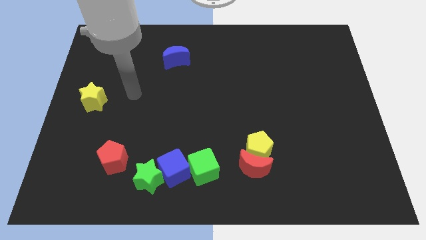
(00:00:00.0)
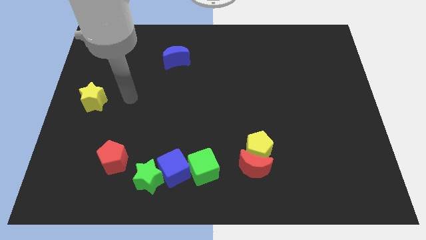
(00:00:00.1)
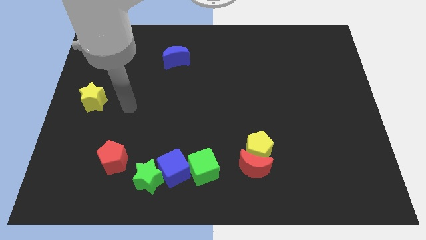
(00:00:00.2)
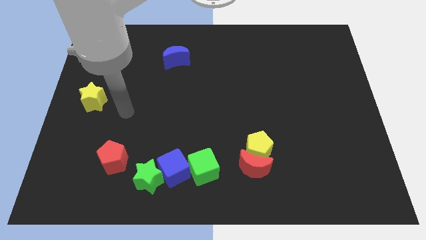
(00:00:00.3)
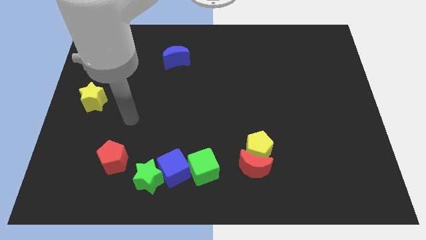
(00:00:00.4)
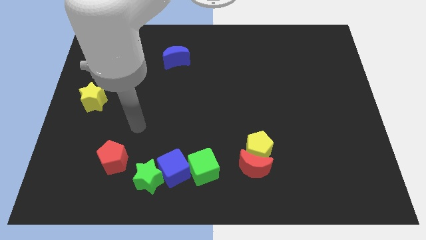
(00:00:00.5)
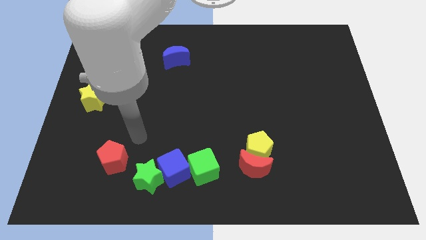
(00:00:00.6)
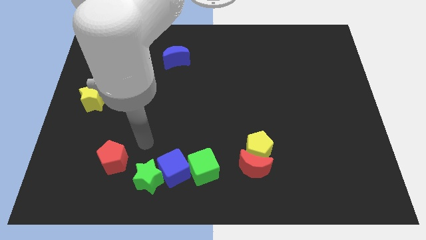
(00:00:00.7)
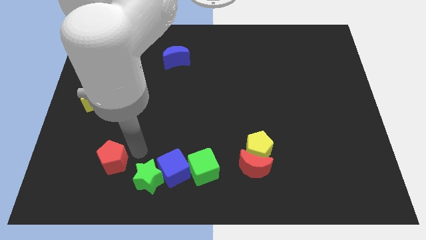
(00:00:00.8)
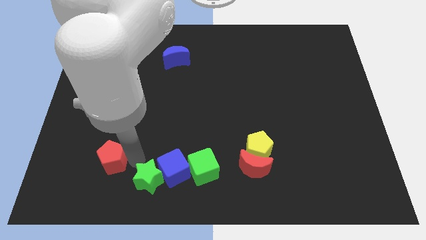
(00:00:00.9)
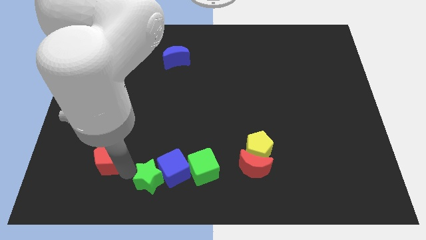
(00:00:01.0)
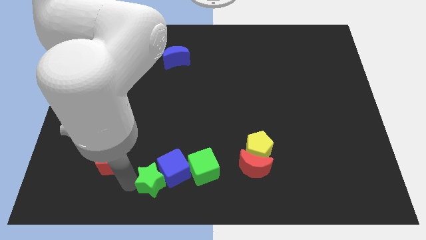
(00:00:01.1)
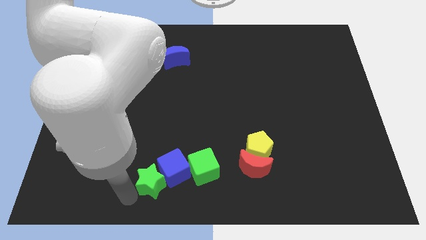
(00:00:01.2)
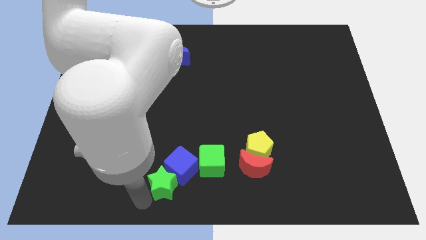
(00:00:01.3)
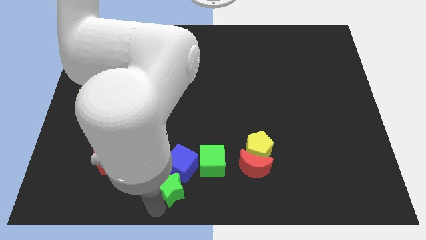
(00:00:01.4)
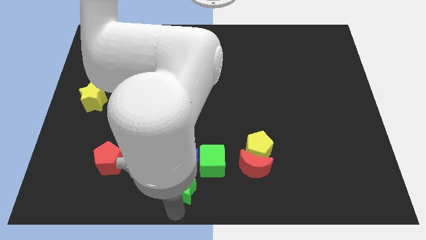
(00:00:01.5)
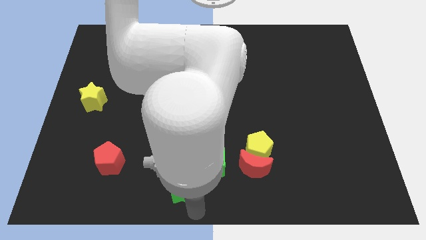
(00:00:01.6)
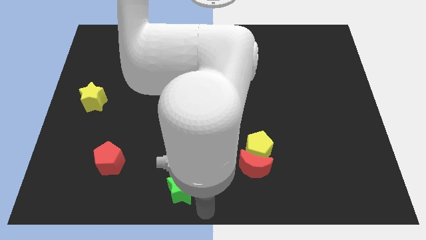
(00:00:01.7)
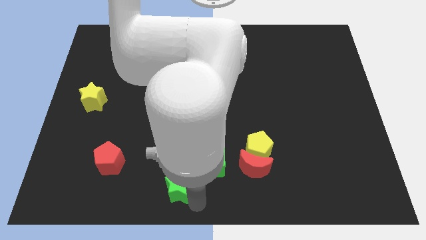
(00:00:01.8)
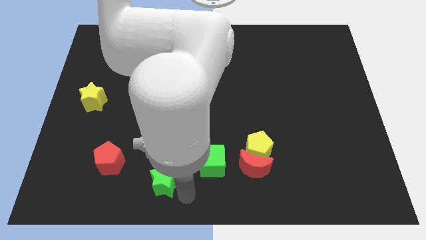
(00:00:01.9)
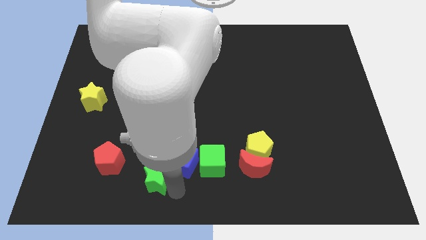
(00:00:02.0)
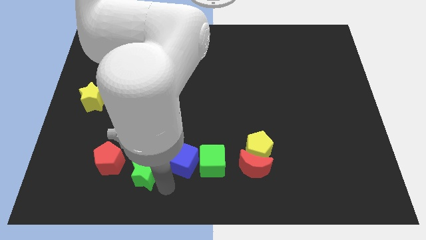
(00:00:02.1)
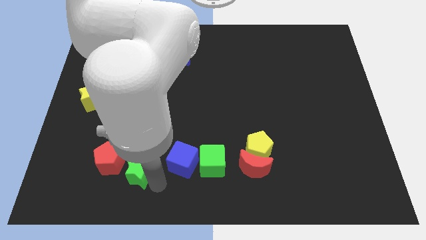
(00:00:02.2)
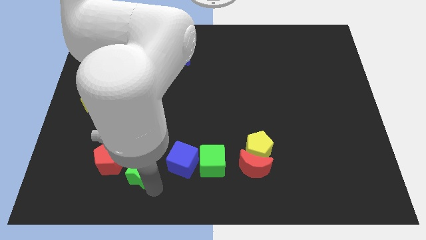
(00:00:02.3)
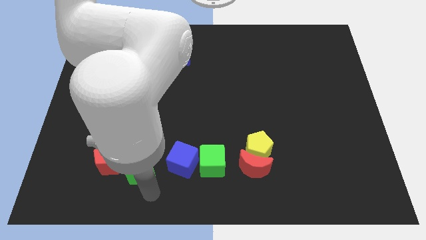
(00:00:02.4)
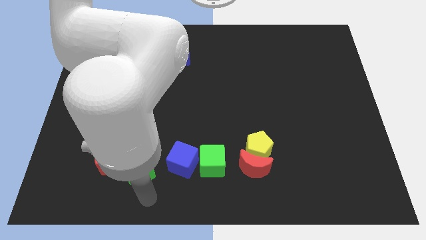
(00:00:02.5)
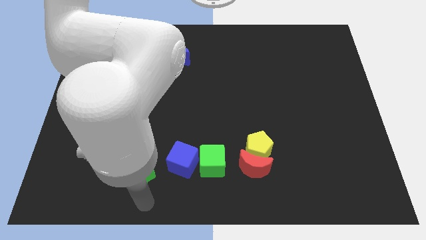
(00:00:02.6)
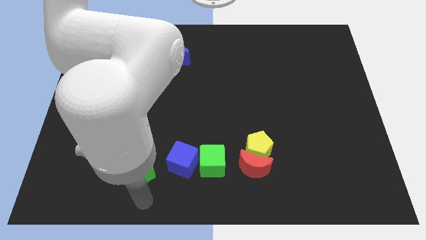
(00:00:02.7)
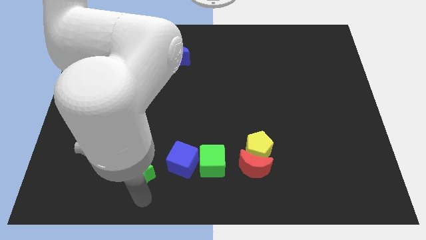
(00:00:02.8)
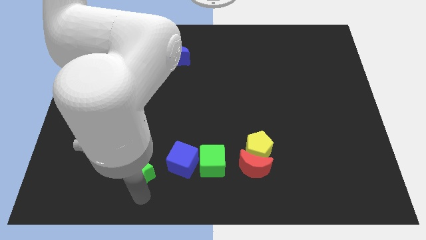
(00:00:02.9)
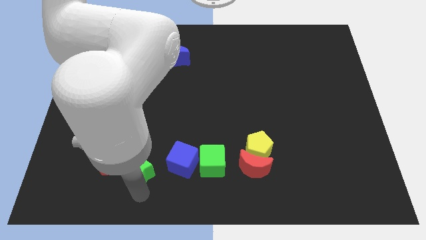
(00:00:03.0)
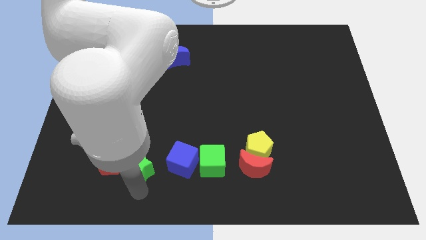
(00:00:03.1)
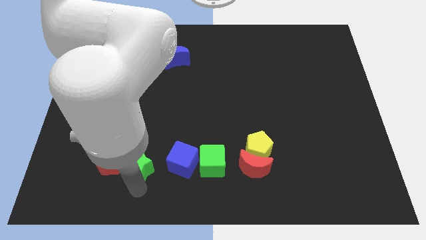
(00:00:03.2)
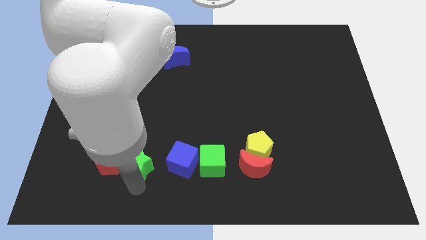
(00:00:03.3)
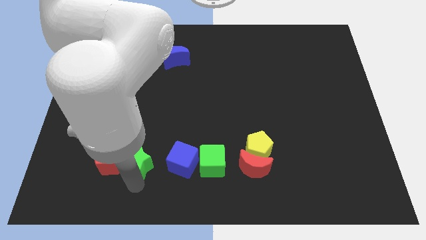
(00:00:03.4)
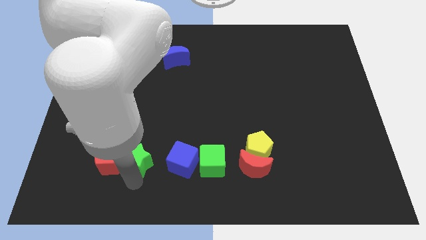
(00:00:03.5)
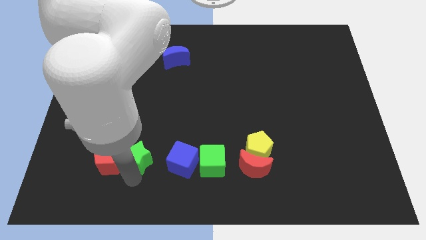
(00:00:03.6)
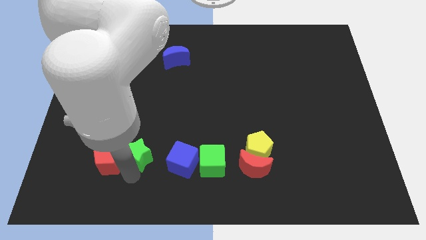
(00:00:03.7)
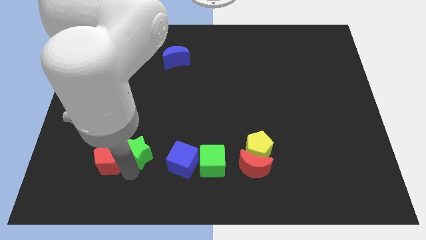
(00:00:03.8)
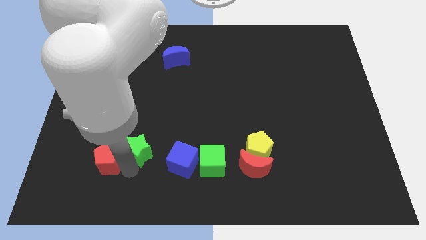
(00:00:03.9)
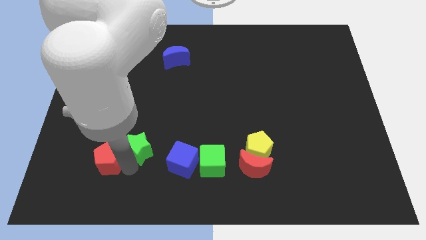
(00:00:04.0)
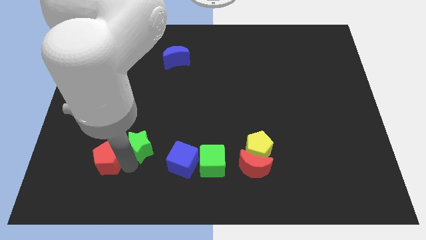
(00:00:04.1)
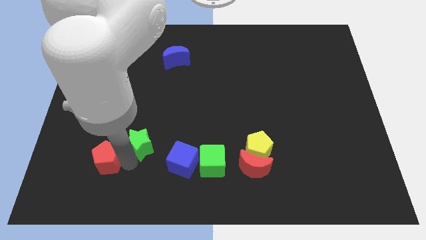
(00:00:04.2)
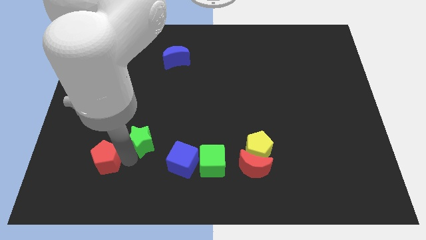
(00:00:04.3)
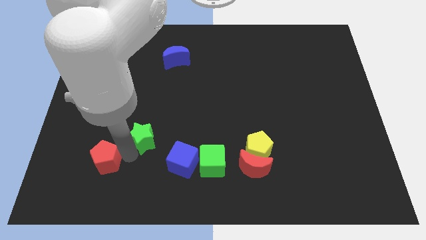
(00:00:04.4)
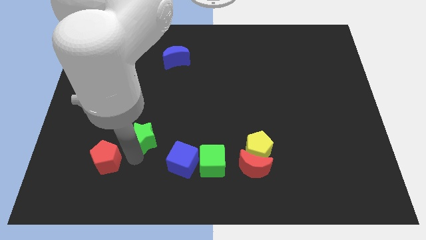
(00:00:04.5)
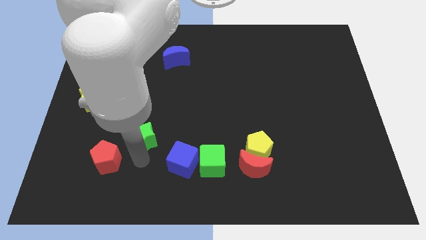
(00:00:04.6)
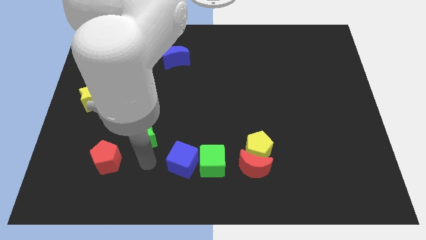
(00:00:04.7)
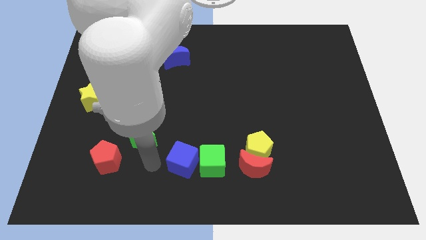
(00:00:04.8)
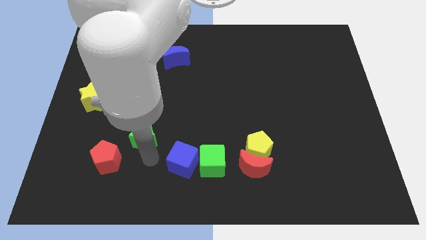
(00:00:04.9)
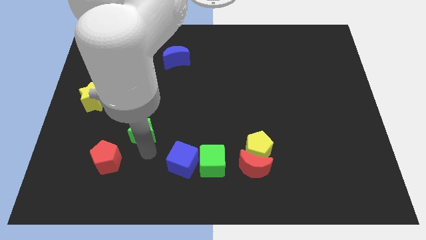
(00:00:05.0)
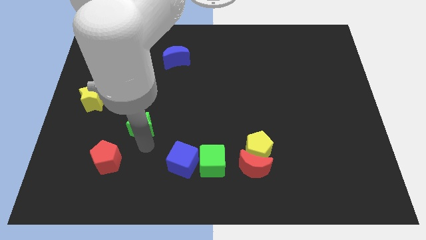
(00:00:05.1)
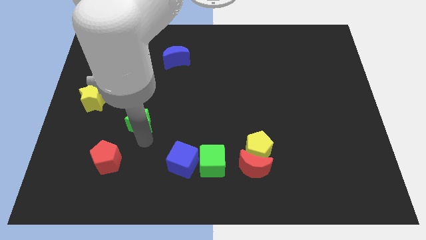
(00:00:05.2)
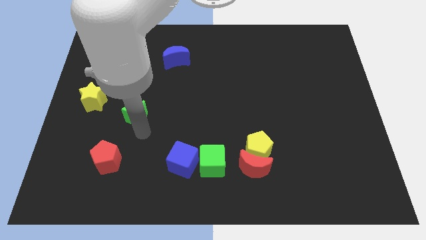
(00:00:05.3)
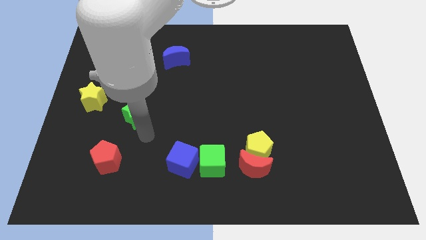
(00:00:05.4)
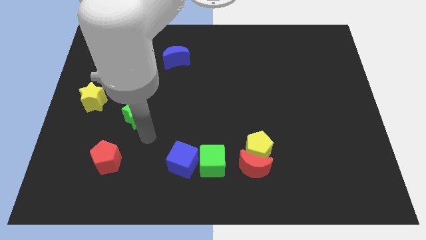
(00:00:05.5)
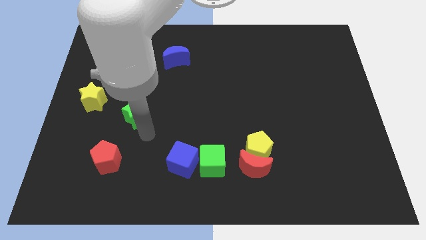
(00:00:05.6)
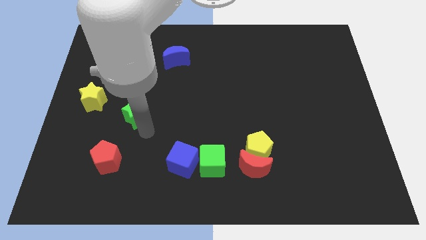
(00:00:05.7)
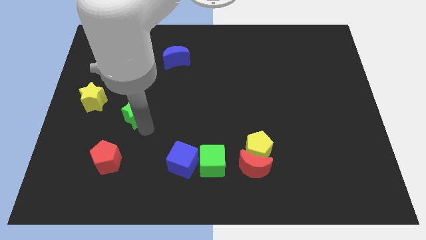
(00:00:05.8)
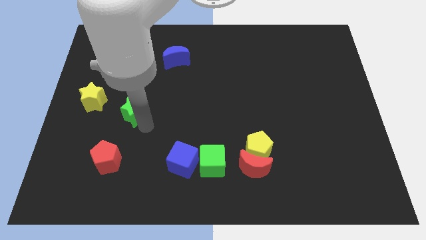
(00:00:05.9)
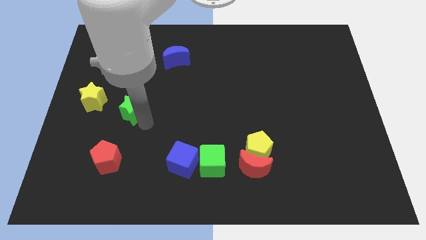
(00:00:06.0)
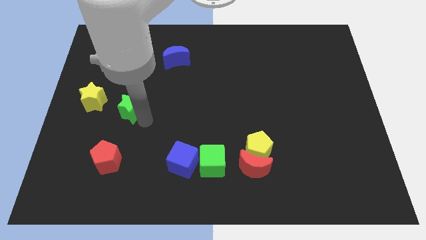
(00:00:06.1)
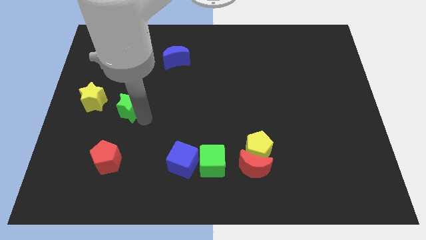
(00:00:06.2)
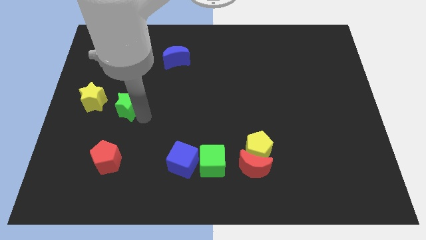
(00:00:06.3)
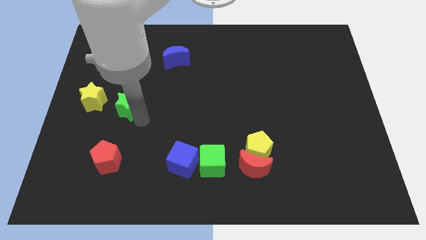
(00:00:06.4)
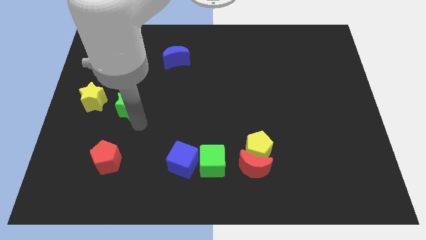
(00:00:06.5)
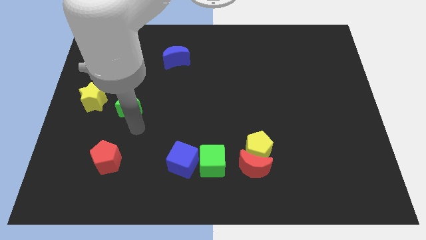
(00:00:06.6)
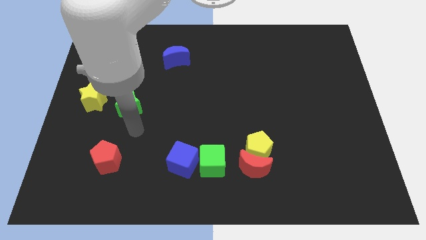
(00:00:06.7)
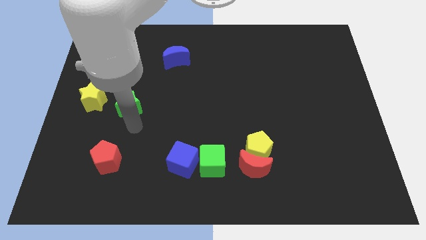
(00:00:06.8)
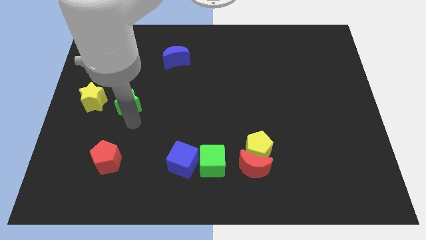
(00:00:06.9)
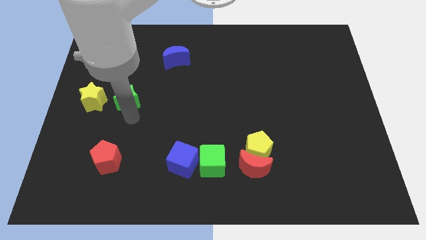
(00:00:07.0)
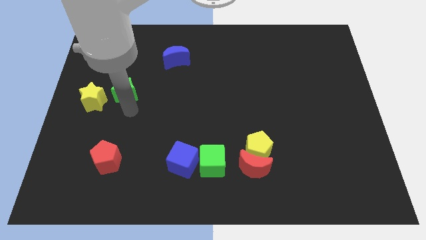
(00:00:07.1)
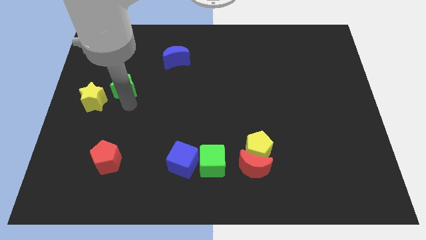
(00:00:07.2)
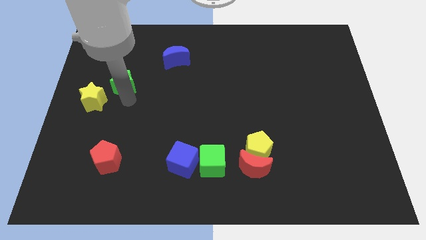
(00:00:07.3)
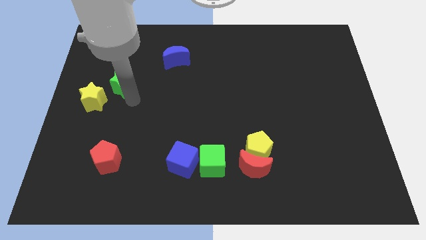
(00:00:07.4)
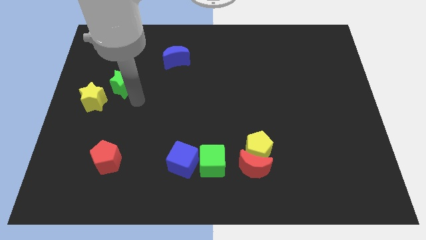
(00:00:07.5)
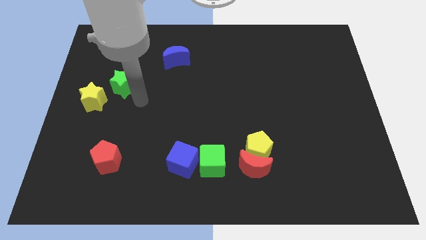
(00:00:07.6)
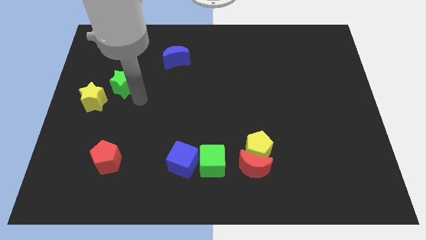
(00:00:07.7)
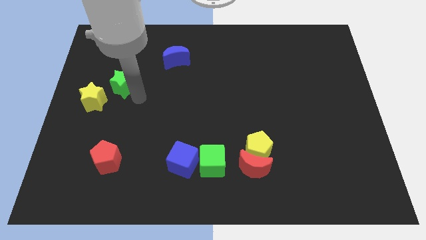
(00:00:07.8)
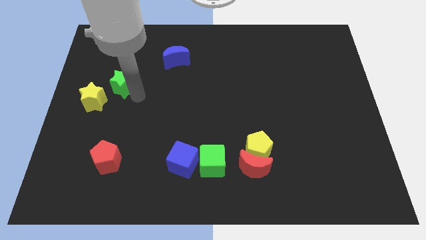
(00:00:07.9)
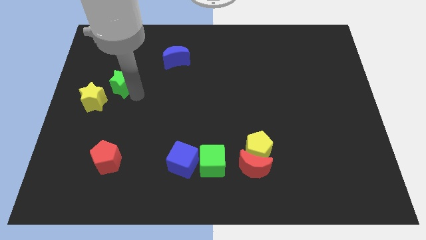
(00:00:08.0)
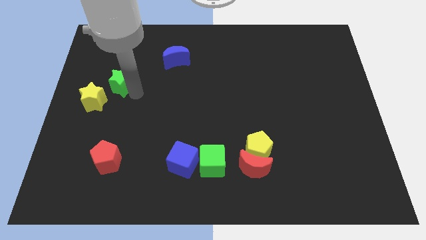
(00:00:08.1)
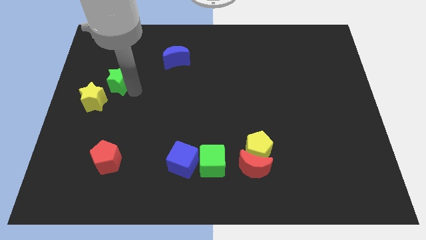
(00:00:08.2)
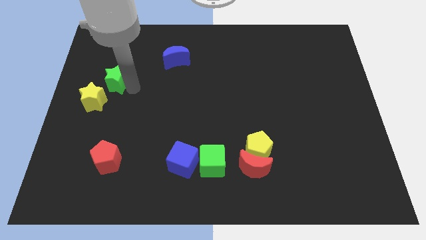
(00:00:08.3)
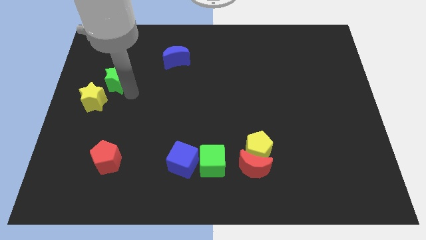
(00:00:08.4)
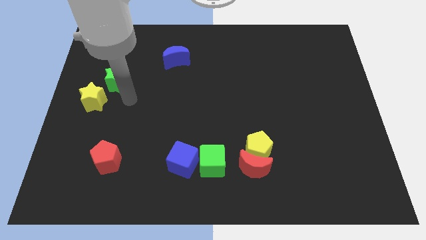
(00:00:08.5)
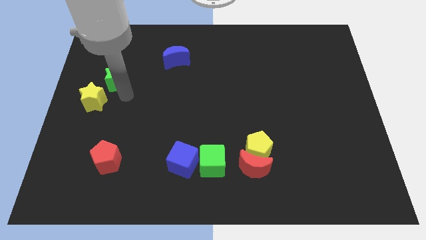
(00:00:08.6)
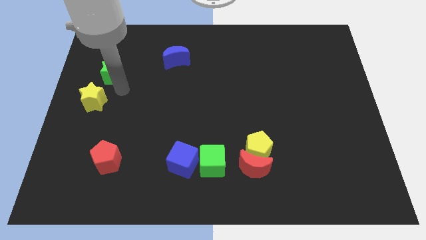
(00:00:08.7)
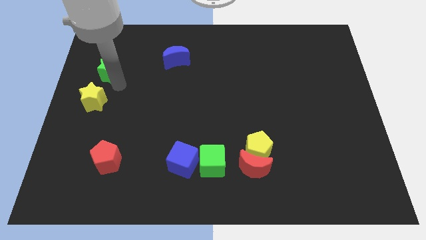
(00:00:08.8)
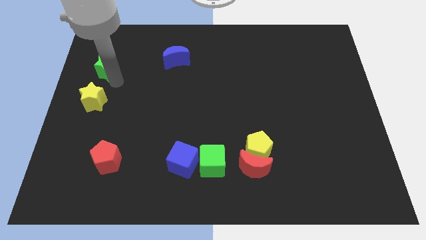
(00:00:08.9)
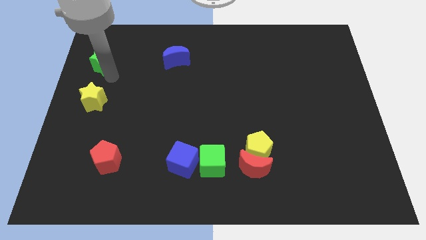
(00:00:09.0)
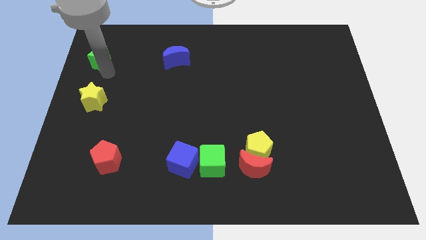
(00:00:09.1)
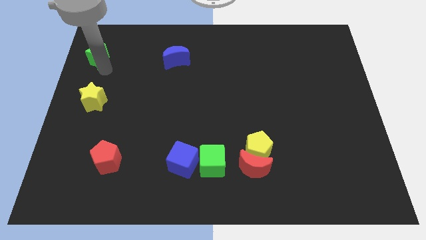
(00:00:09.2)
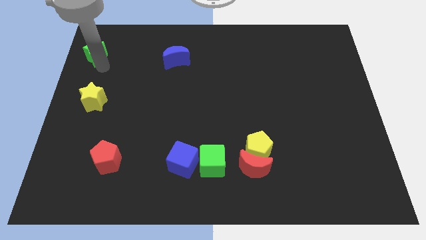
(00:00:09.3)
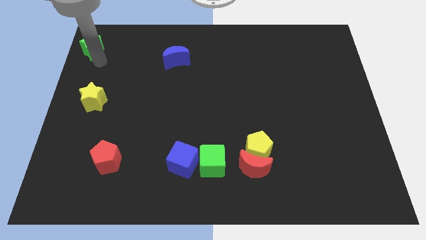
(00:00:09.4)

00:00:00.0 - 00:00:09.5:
move the green star to the upper left corner
